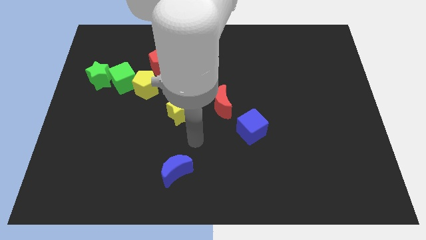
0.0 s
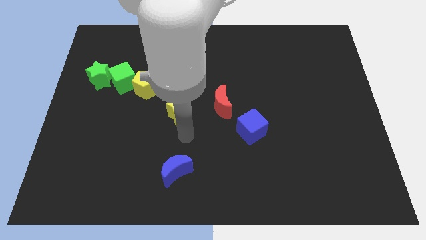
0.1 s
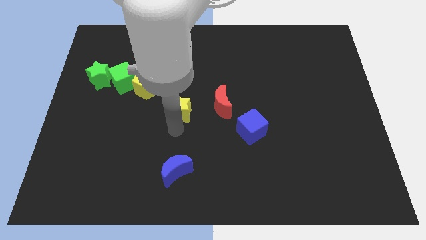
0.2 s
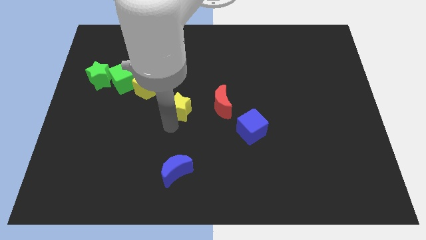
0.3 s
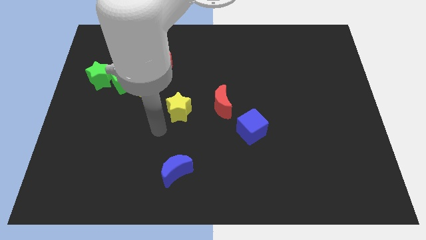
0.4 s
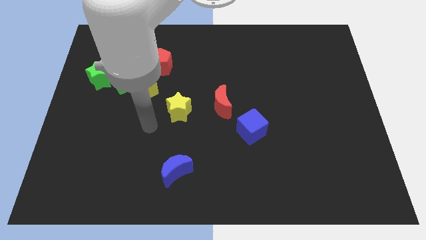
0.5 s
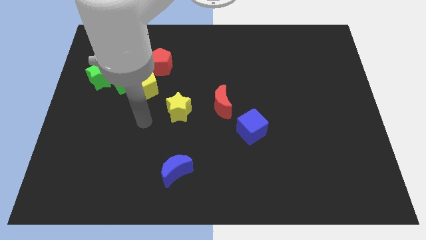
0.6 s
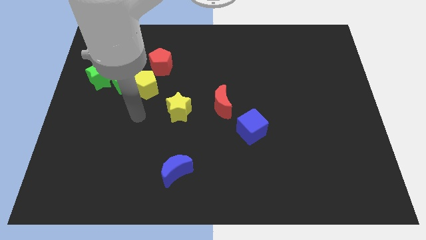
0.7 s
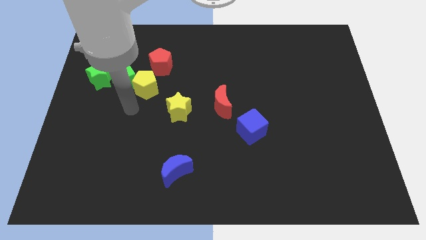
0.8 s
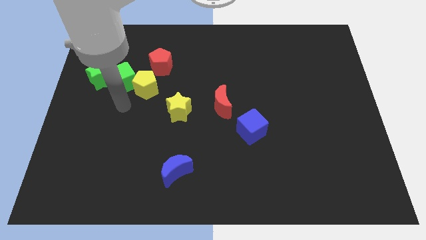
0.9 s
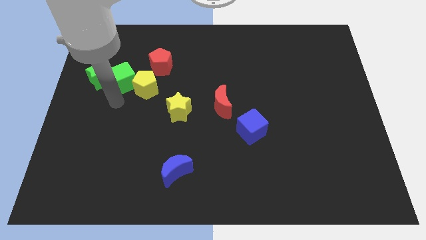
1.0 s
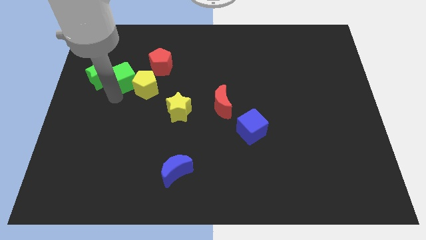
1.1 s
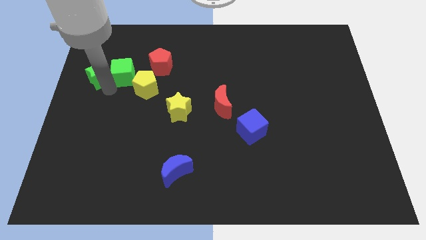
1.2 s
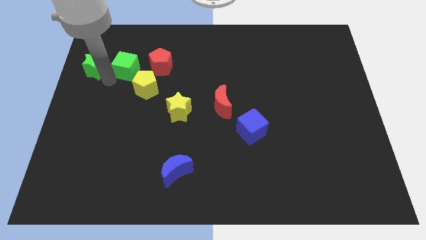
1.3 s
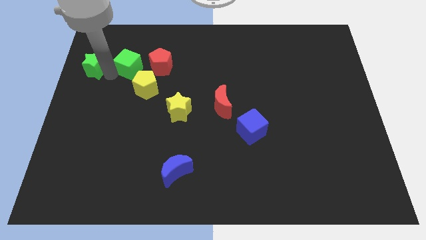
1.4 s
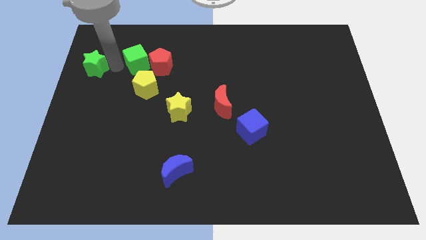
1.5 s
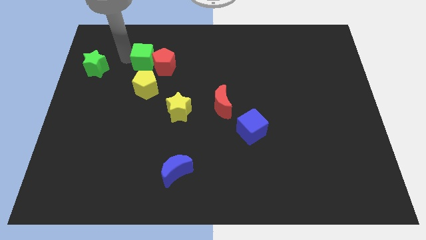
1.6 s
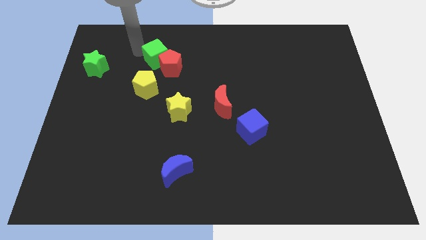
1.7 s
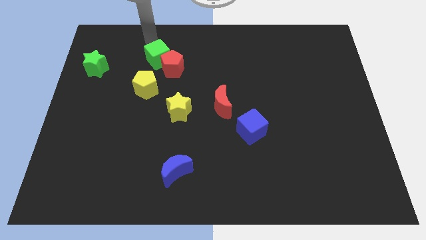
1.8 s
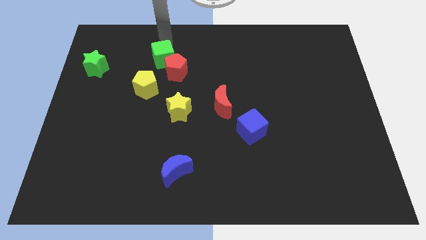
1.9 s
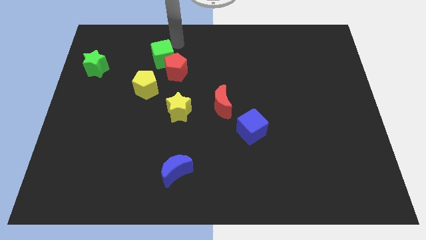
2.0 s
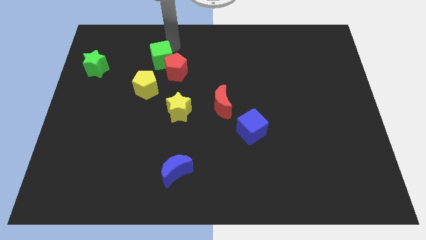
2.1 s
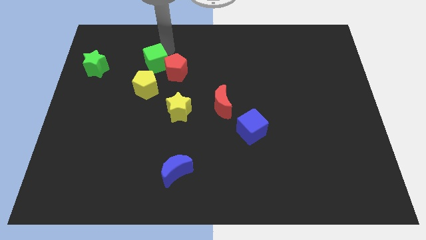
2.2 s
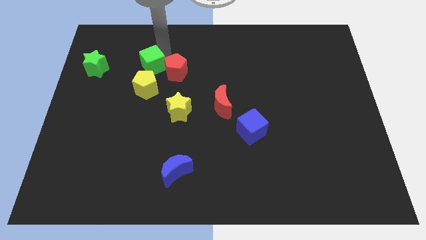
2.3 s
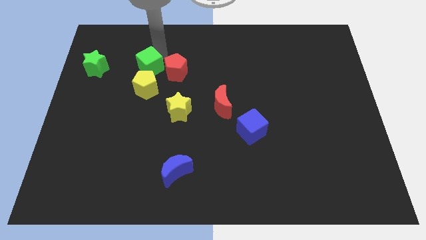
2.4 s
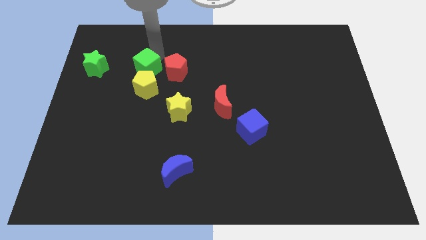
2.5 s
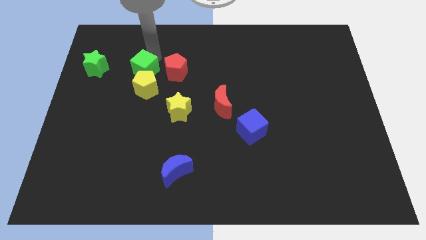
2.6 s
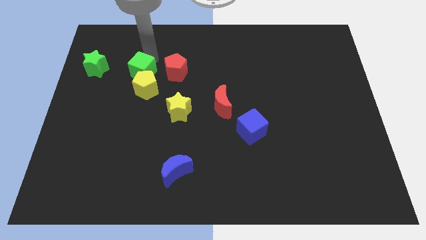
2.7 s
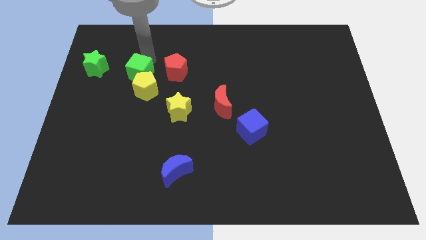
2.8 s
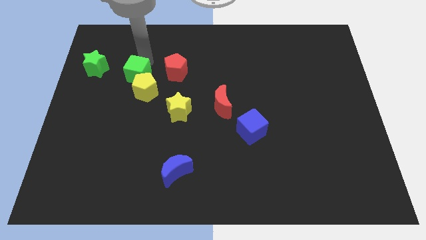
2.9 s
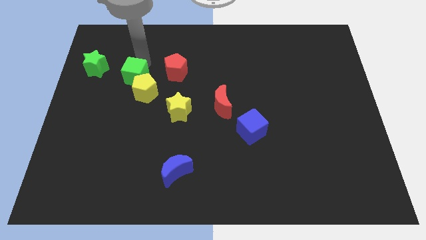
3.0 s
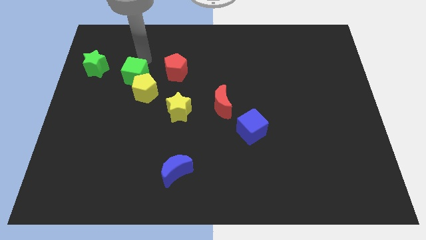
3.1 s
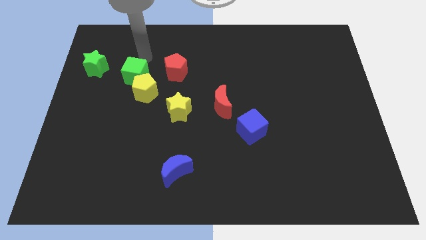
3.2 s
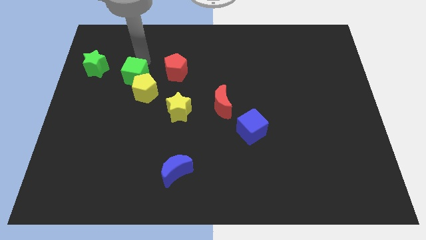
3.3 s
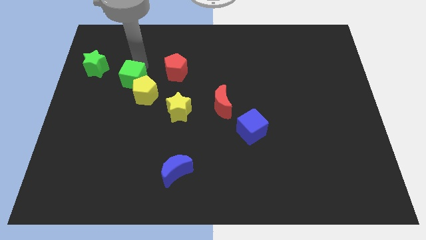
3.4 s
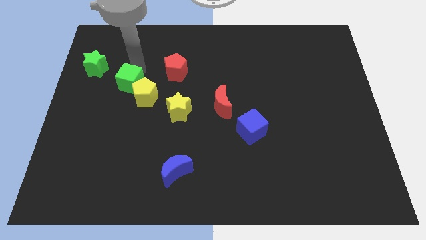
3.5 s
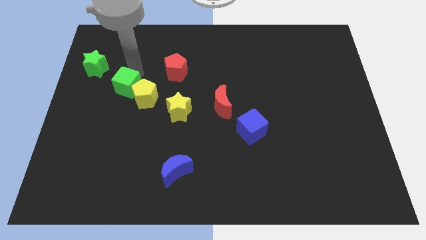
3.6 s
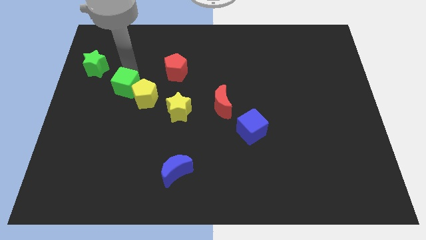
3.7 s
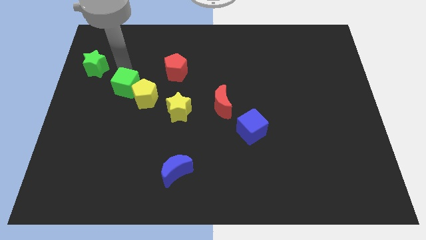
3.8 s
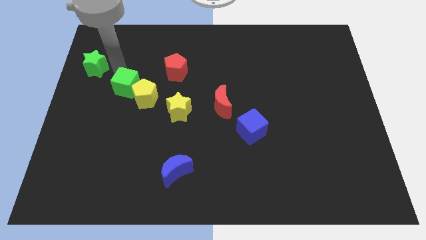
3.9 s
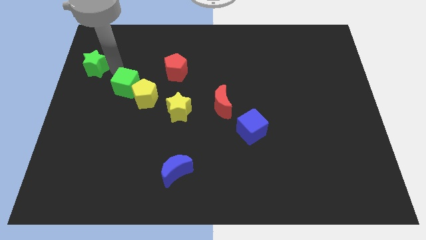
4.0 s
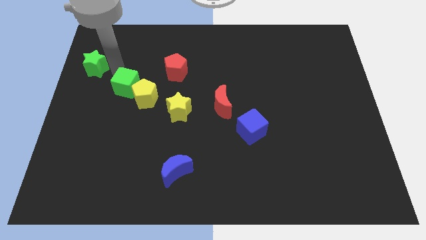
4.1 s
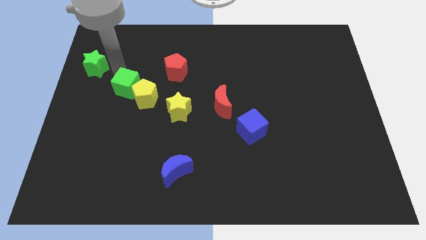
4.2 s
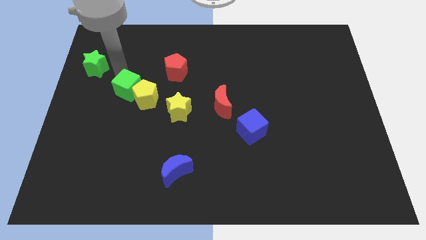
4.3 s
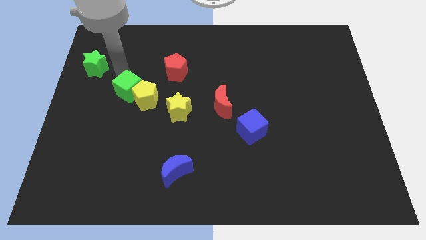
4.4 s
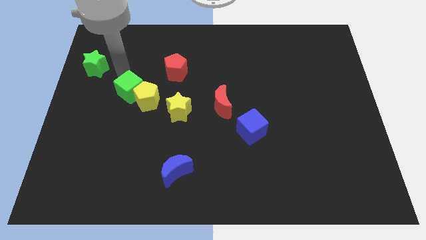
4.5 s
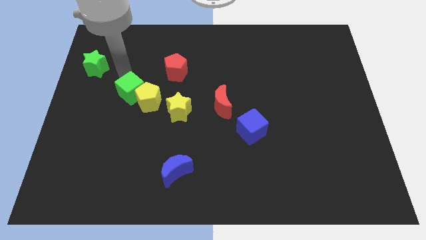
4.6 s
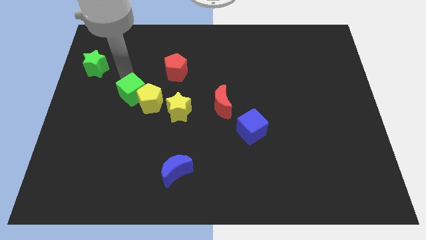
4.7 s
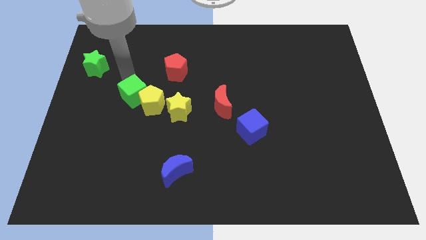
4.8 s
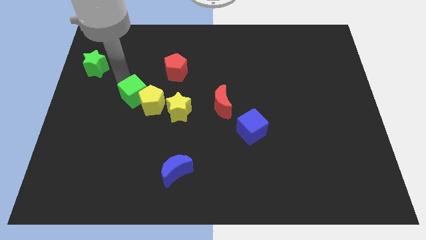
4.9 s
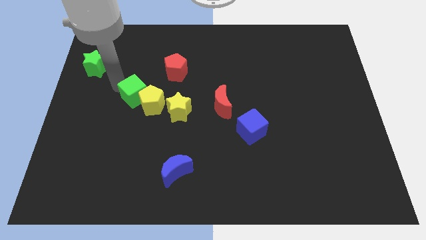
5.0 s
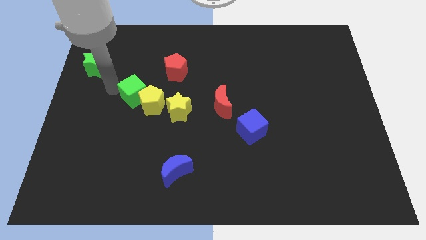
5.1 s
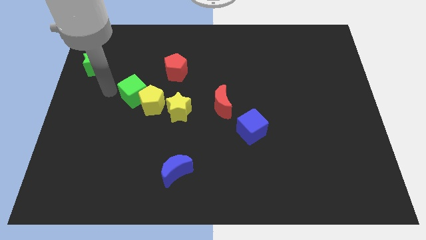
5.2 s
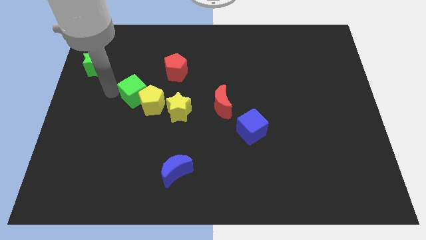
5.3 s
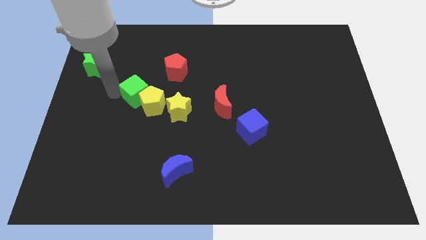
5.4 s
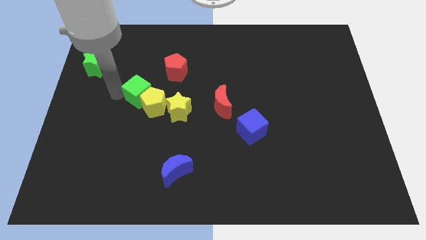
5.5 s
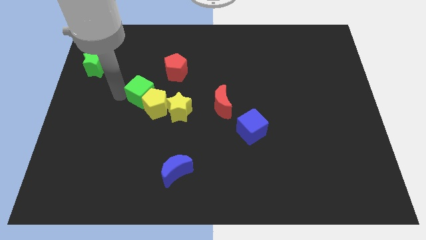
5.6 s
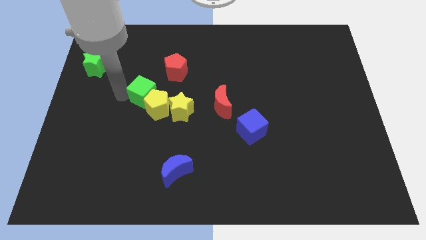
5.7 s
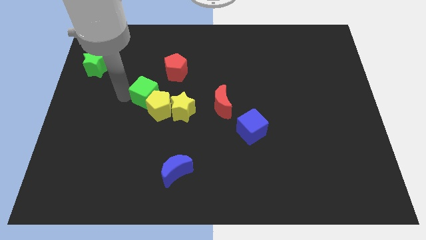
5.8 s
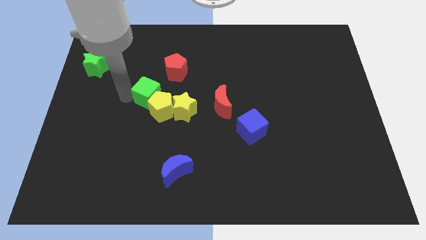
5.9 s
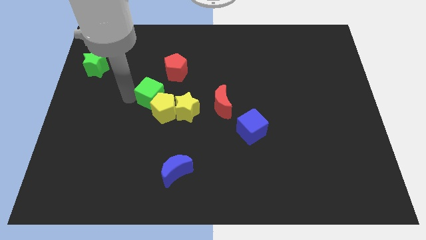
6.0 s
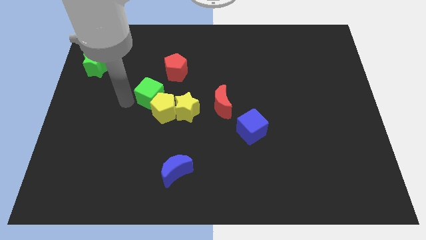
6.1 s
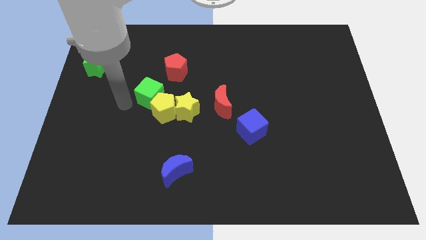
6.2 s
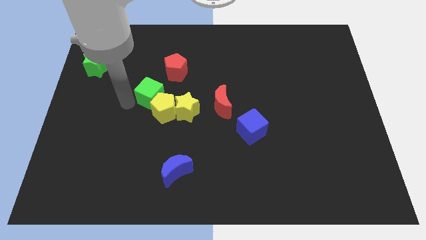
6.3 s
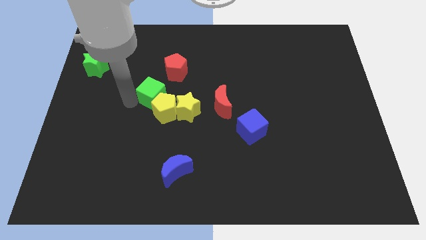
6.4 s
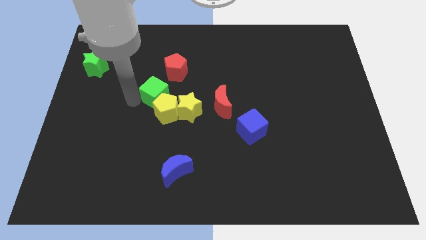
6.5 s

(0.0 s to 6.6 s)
slide the green cube right somewhat

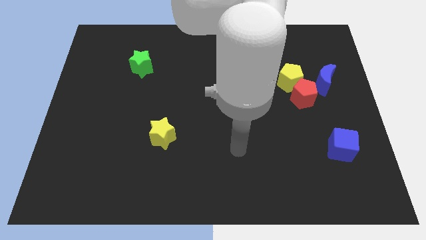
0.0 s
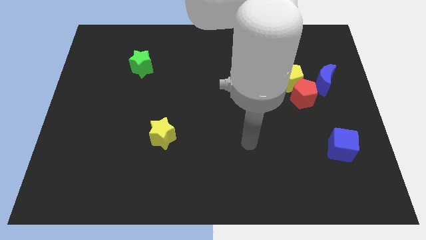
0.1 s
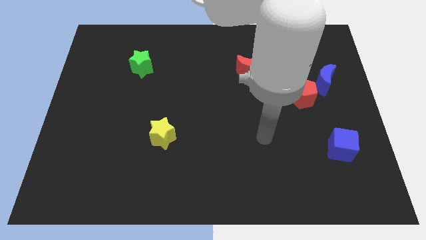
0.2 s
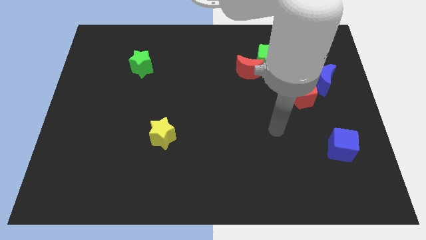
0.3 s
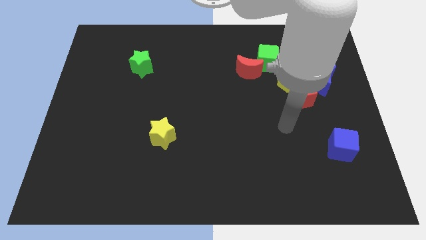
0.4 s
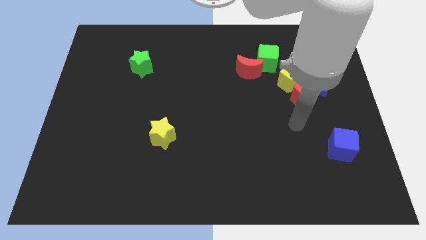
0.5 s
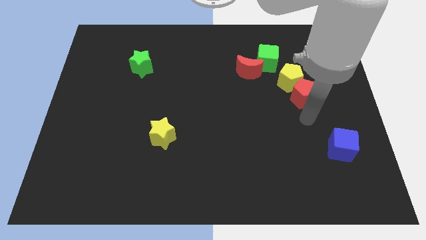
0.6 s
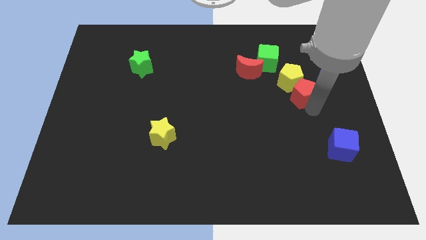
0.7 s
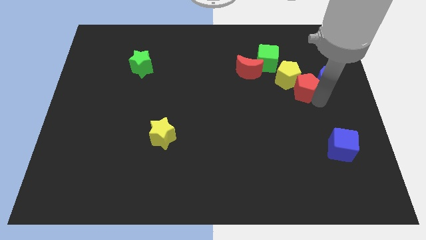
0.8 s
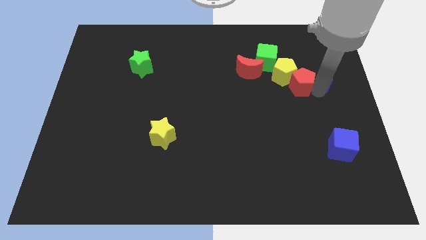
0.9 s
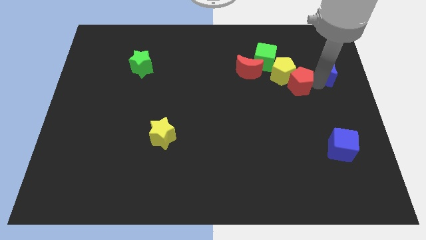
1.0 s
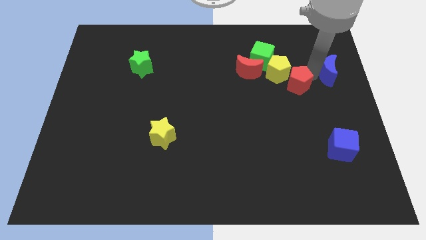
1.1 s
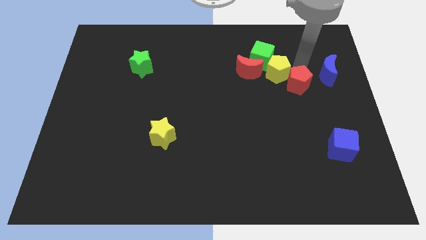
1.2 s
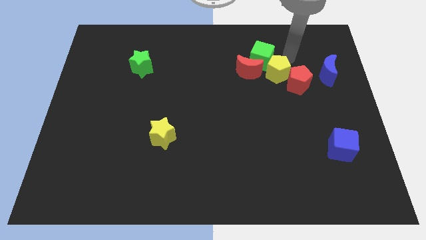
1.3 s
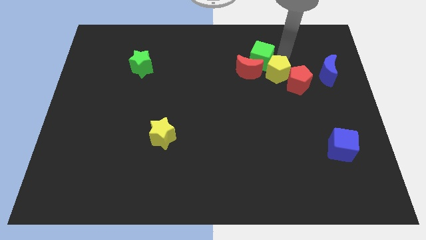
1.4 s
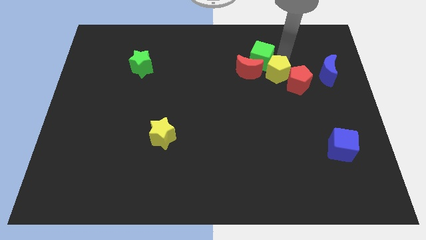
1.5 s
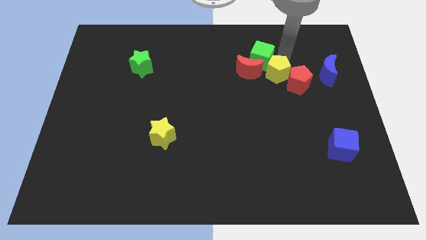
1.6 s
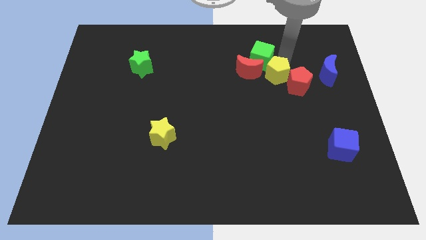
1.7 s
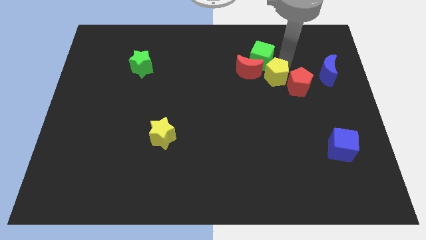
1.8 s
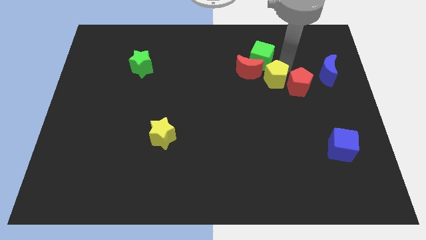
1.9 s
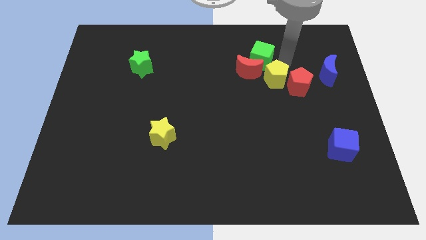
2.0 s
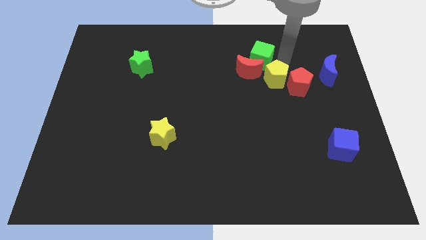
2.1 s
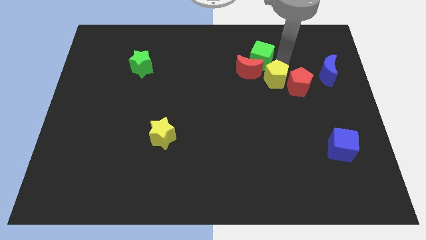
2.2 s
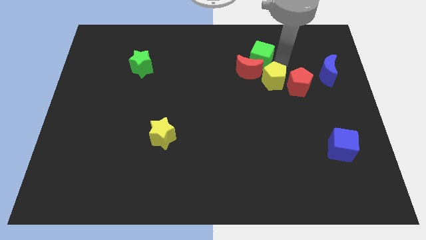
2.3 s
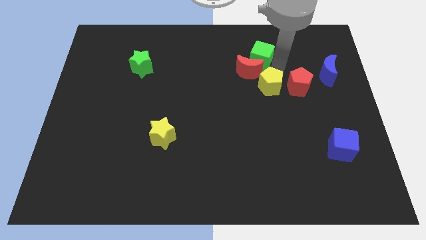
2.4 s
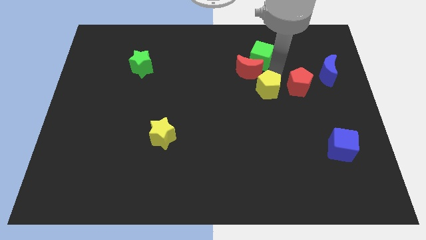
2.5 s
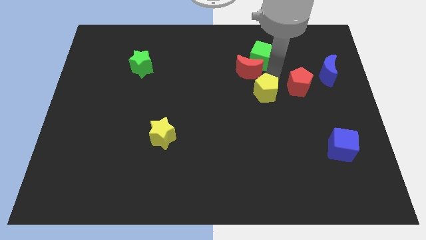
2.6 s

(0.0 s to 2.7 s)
move the yellow pentagon slightly diagonally down and to the left
